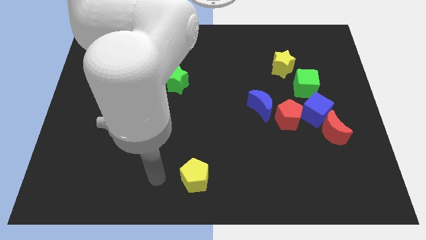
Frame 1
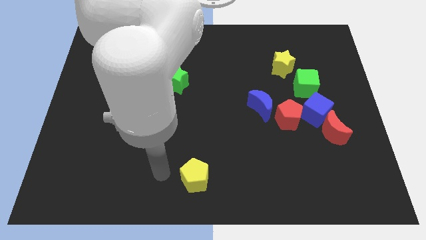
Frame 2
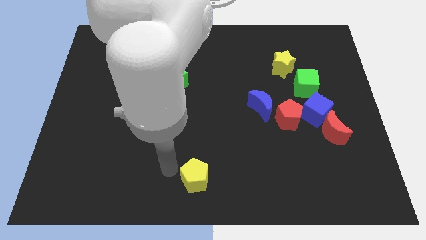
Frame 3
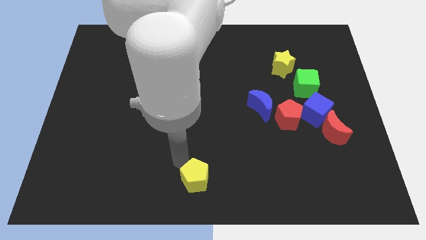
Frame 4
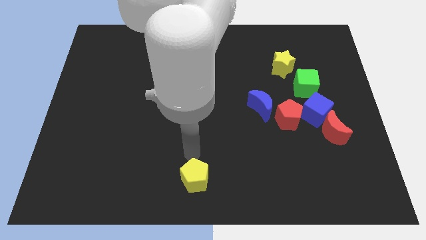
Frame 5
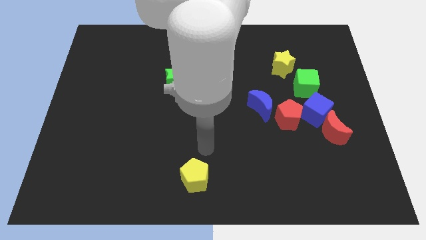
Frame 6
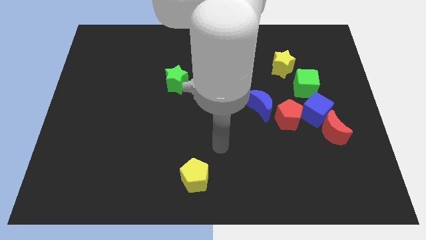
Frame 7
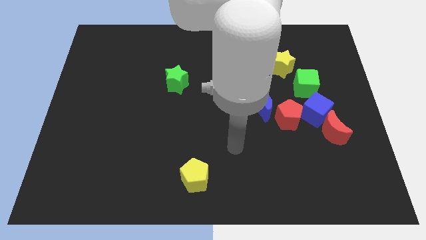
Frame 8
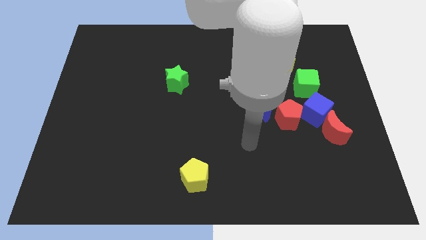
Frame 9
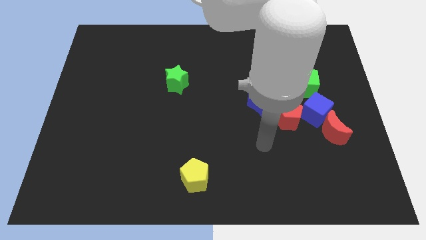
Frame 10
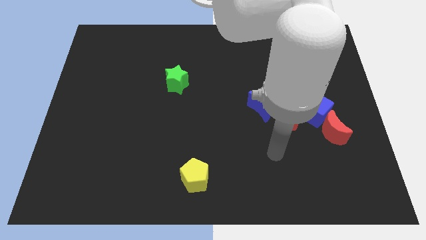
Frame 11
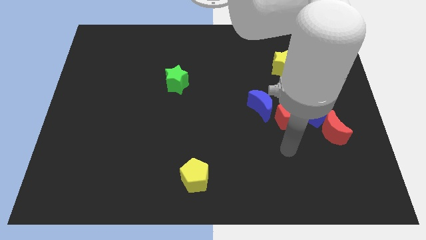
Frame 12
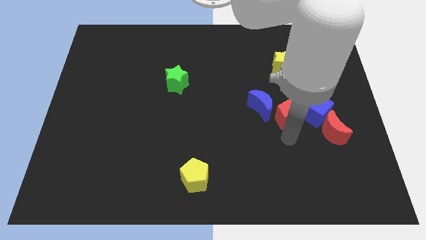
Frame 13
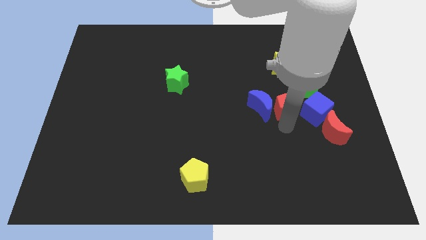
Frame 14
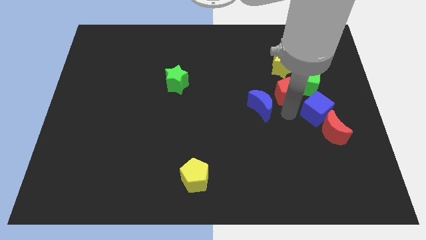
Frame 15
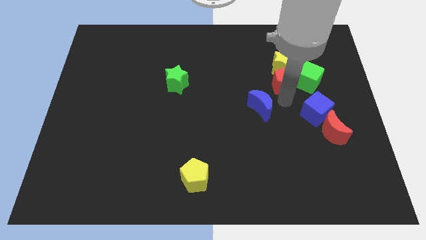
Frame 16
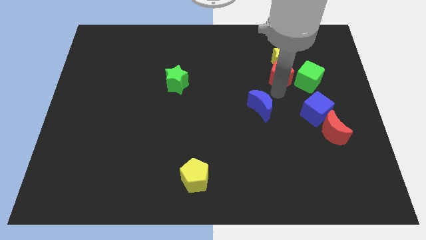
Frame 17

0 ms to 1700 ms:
pull the blue moon apart from the red pentagon

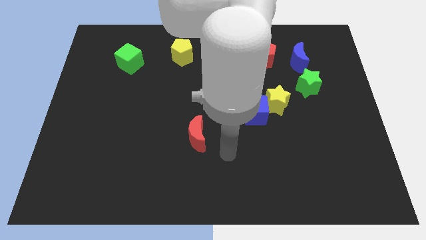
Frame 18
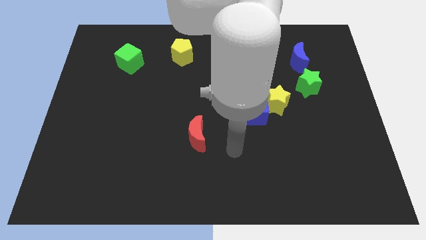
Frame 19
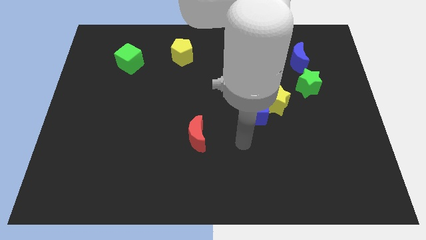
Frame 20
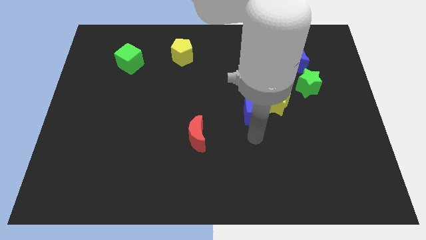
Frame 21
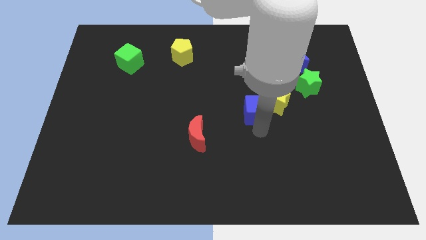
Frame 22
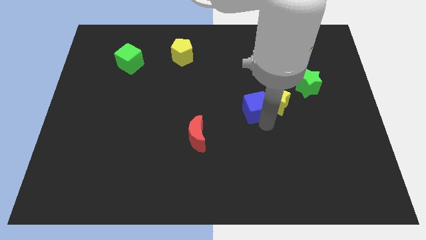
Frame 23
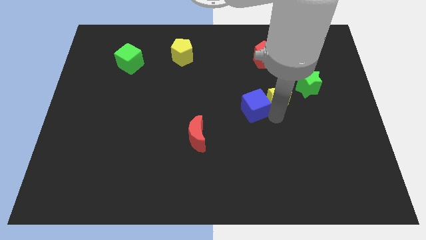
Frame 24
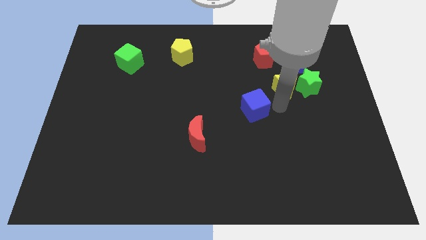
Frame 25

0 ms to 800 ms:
pull the blue cube apart from the yellow star

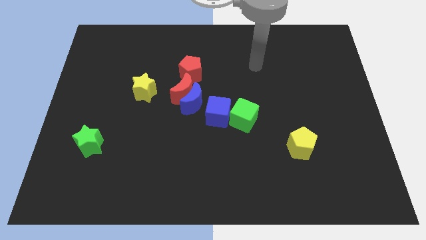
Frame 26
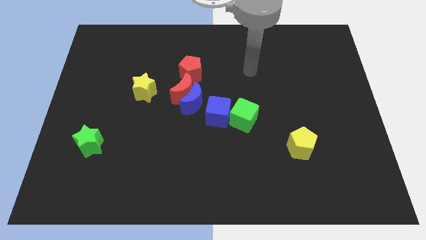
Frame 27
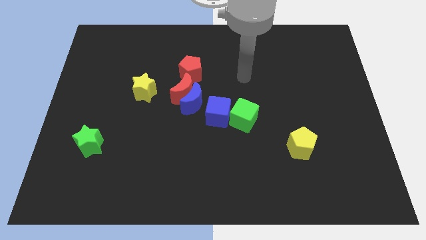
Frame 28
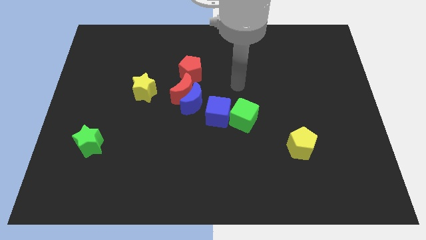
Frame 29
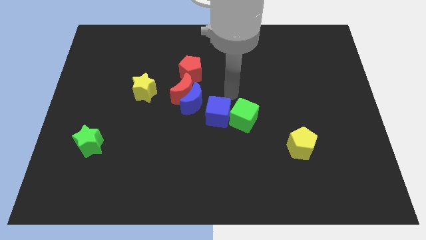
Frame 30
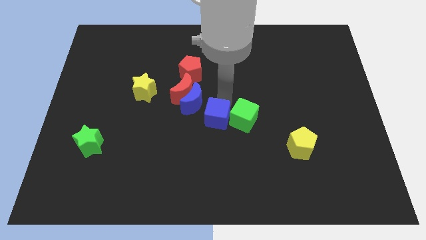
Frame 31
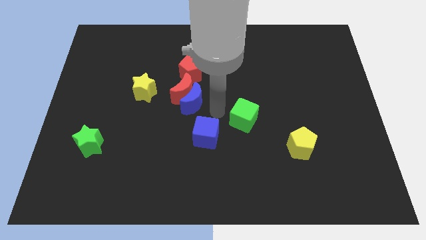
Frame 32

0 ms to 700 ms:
separate the green cube from the blue cube

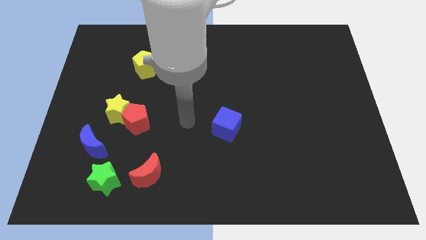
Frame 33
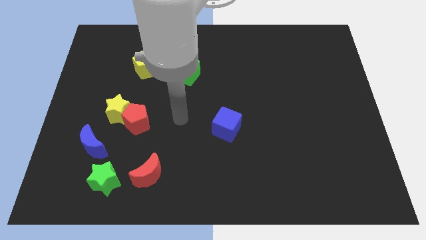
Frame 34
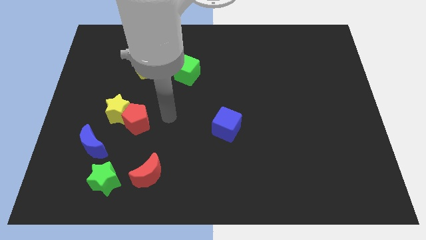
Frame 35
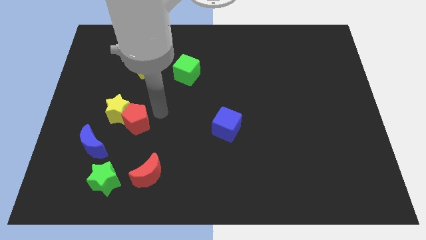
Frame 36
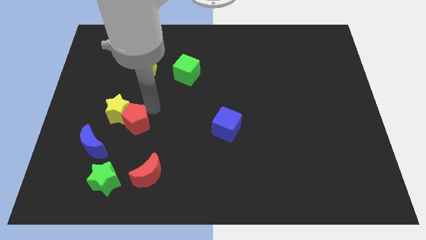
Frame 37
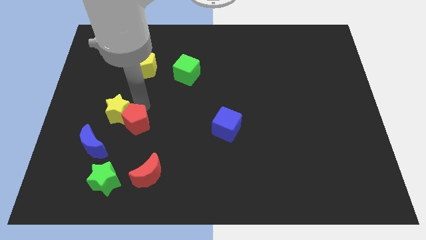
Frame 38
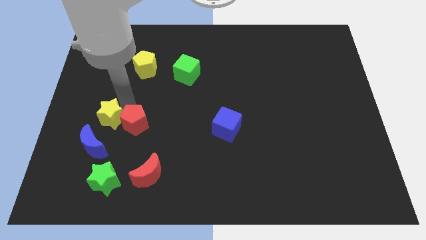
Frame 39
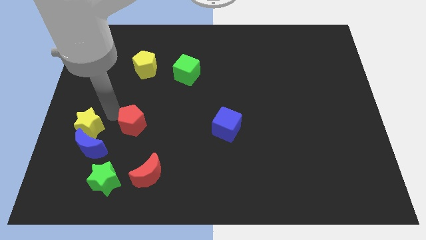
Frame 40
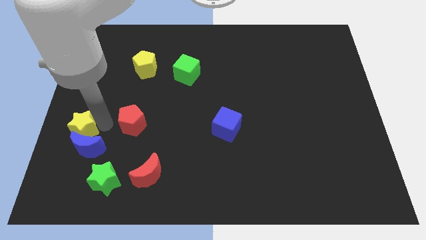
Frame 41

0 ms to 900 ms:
move the red pentagon away from the yellow star

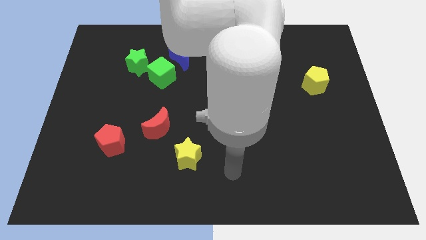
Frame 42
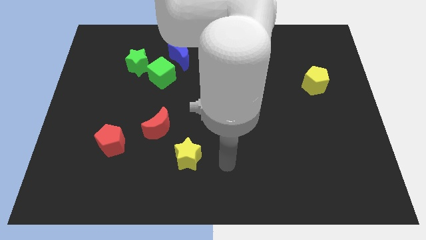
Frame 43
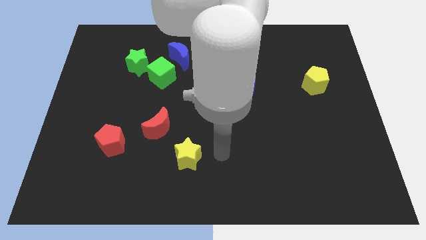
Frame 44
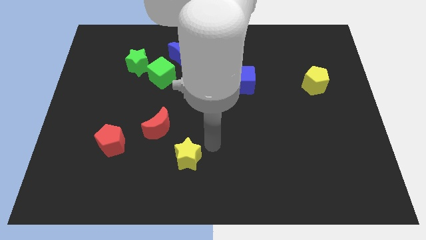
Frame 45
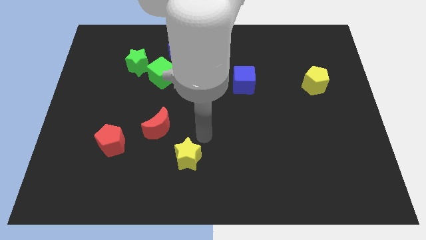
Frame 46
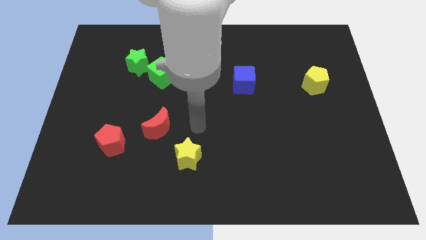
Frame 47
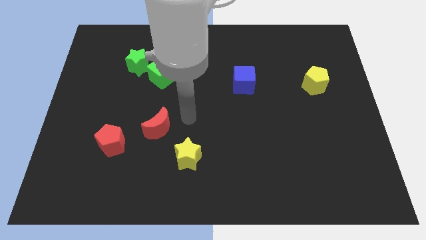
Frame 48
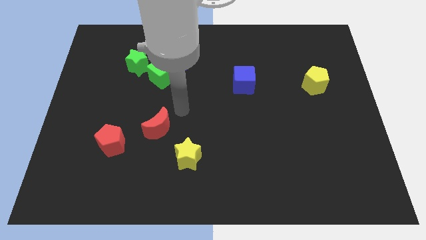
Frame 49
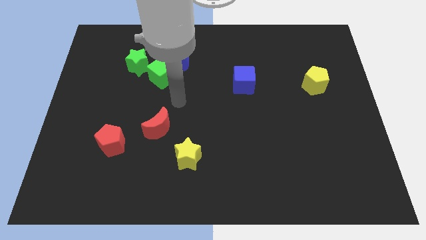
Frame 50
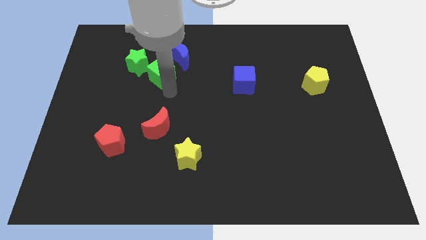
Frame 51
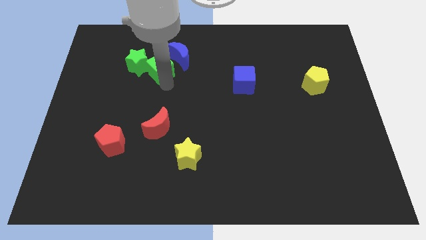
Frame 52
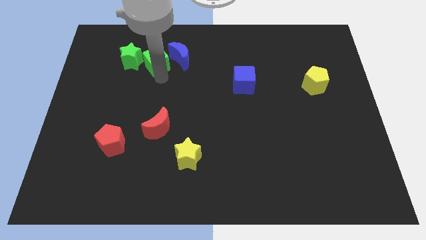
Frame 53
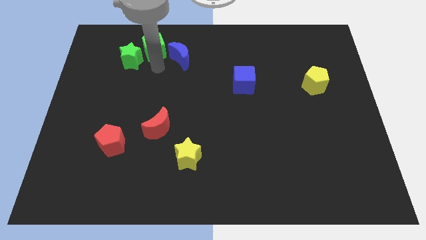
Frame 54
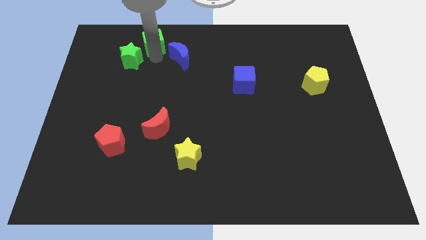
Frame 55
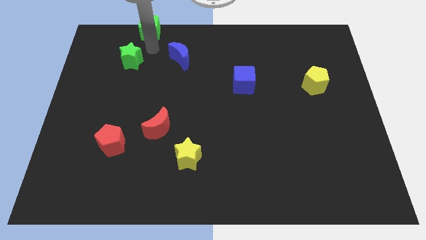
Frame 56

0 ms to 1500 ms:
pull the green star apart from the green cube

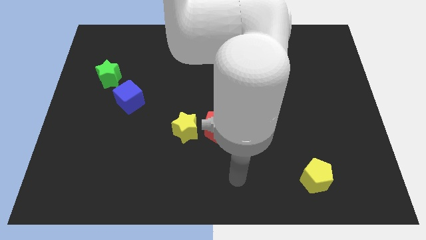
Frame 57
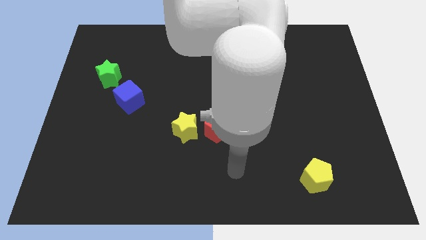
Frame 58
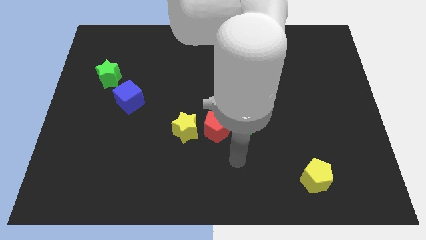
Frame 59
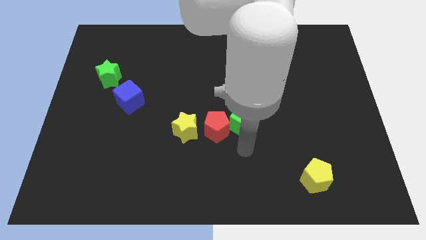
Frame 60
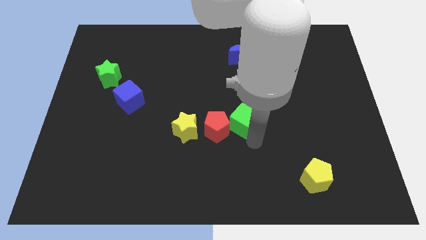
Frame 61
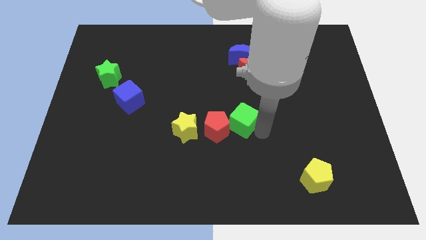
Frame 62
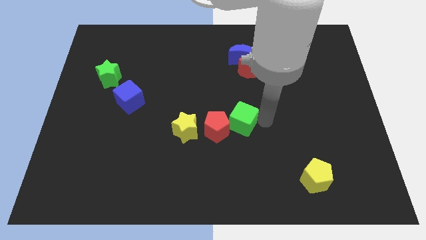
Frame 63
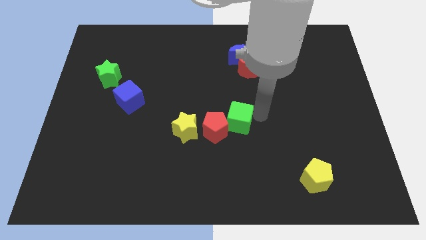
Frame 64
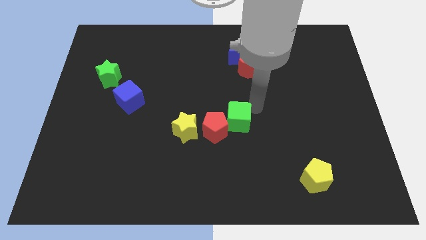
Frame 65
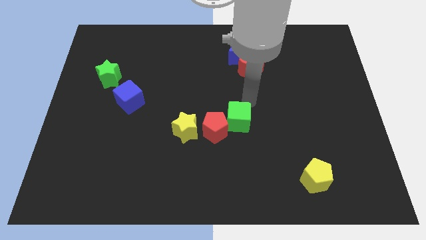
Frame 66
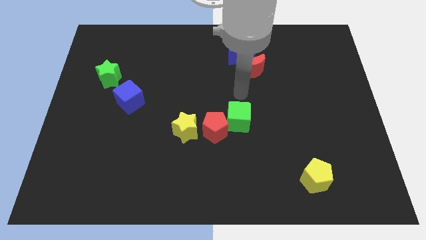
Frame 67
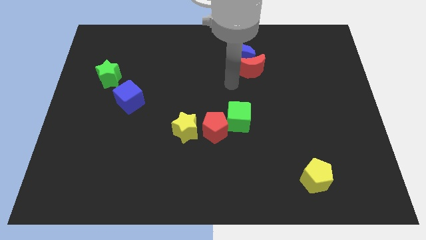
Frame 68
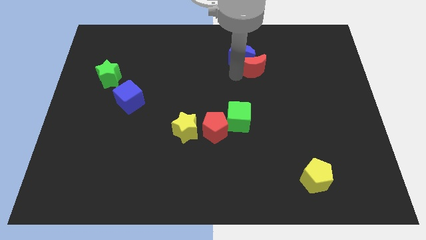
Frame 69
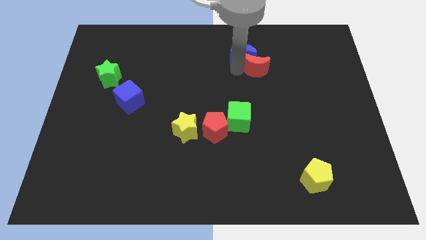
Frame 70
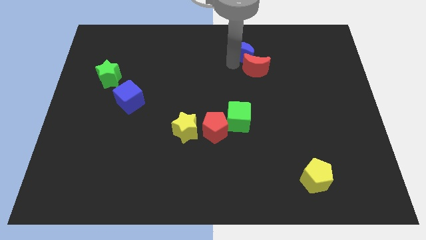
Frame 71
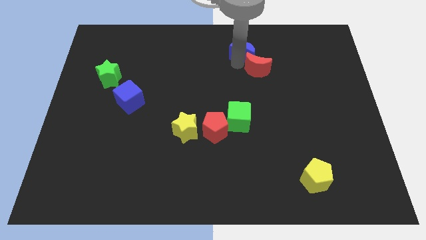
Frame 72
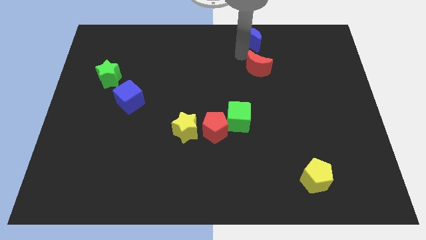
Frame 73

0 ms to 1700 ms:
move the red moon away from the blue moon

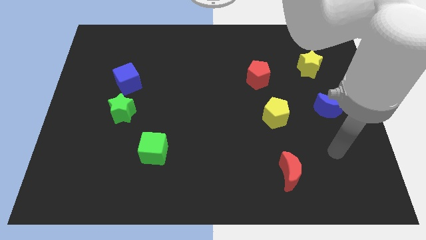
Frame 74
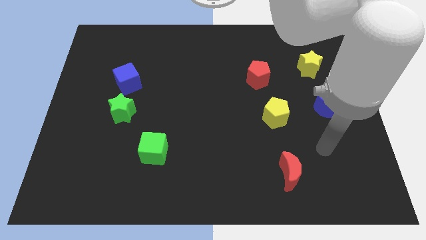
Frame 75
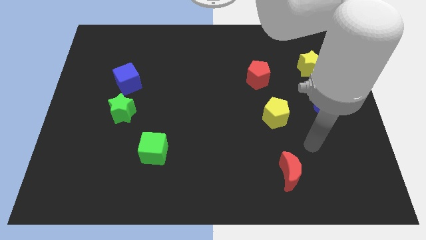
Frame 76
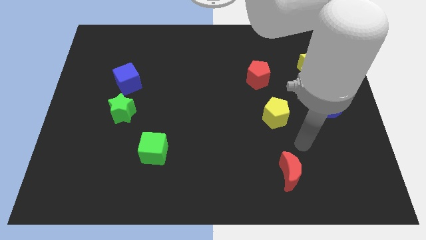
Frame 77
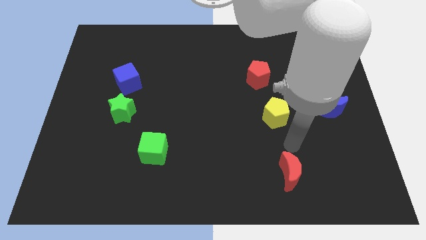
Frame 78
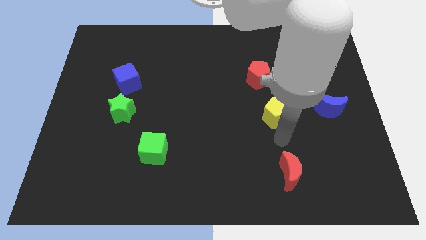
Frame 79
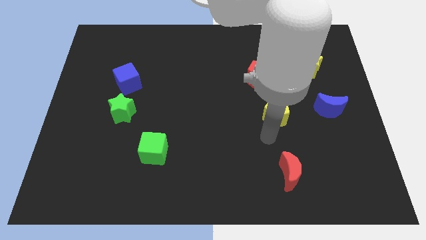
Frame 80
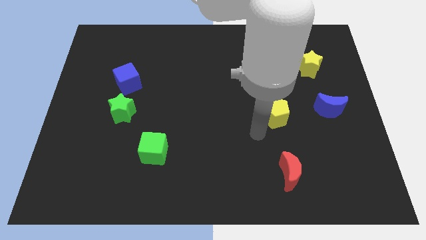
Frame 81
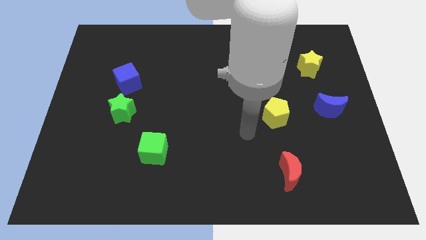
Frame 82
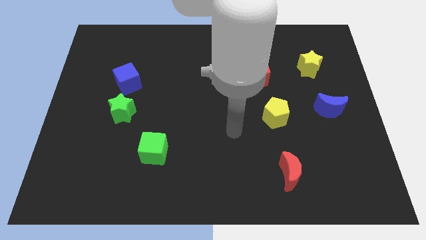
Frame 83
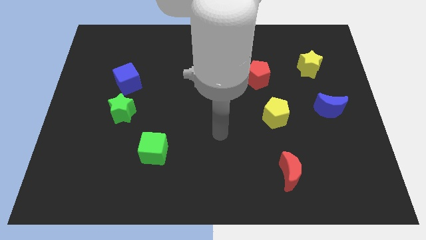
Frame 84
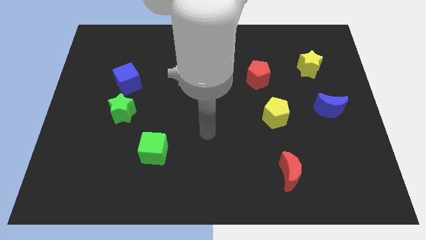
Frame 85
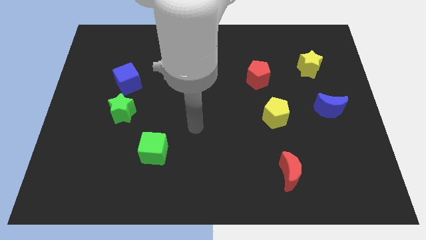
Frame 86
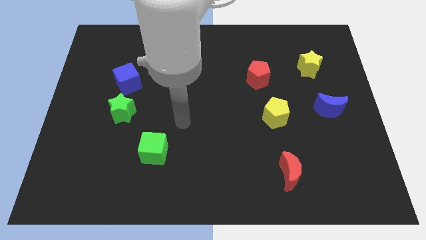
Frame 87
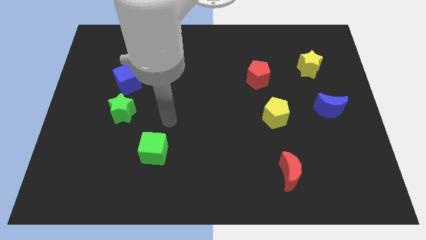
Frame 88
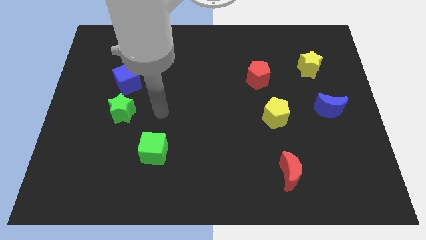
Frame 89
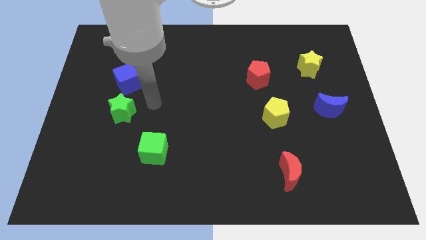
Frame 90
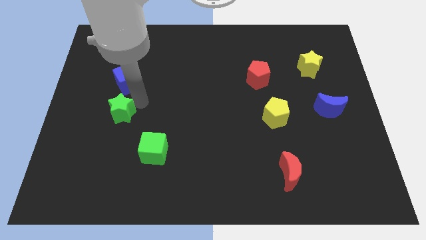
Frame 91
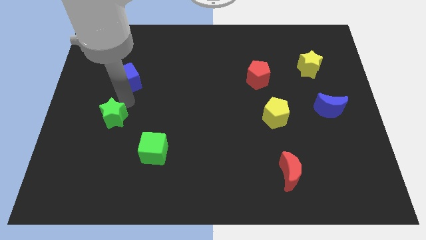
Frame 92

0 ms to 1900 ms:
move the blue cube away from the green star

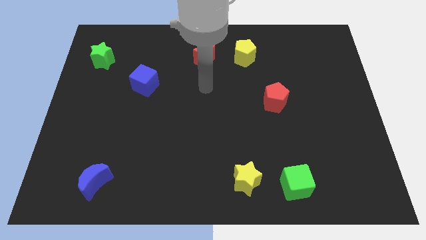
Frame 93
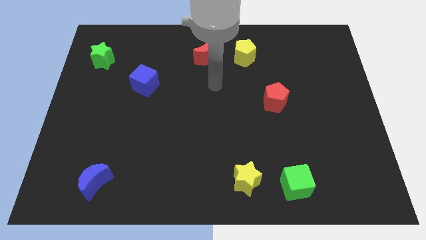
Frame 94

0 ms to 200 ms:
move the red moon away from the yellow pentagon
